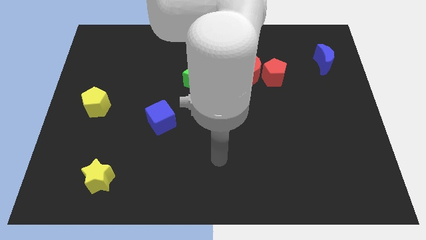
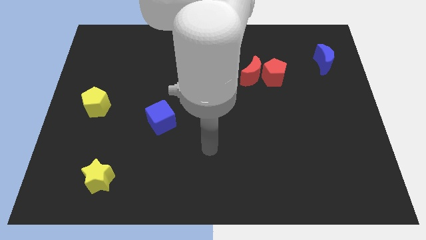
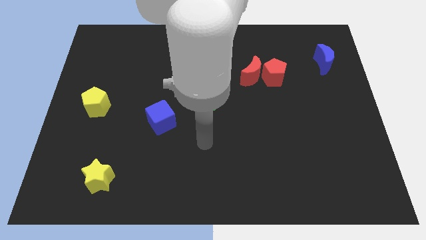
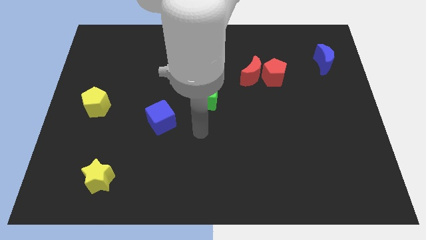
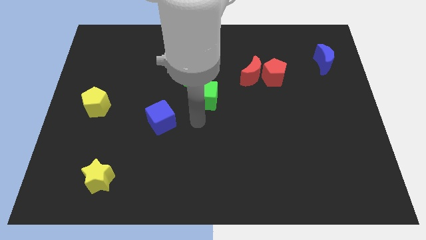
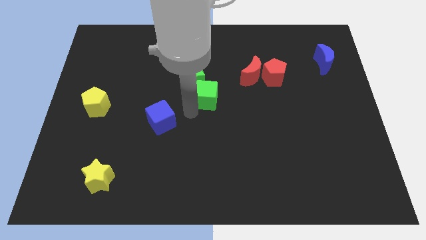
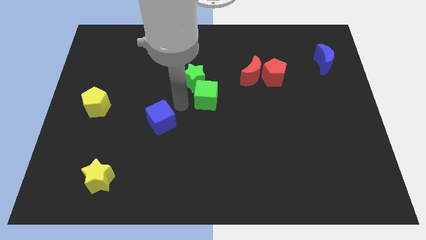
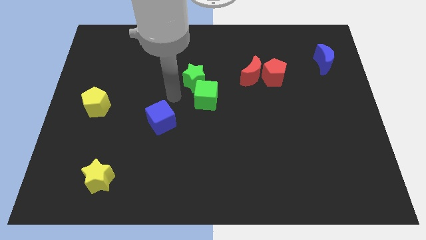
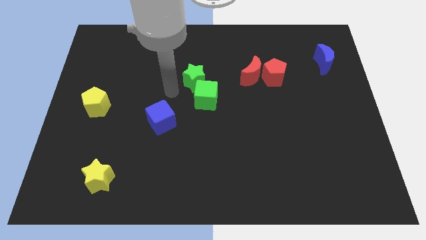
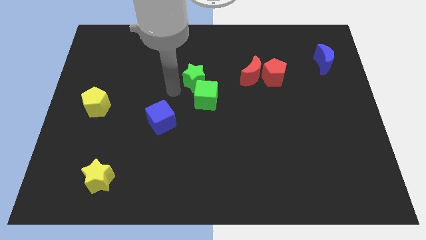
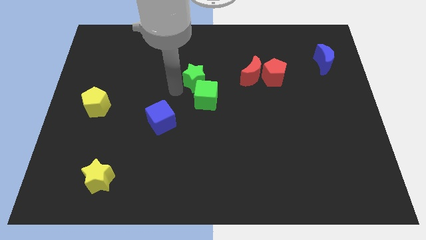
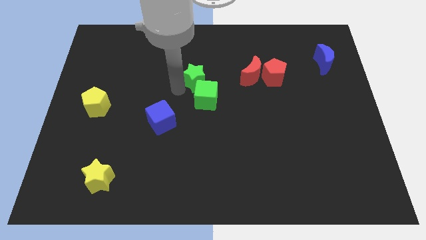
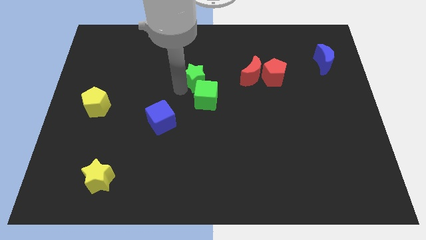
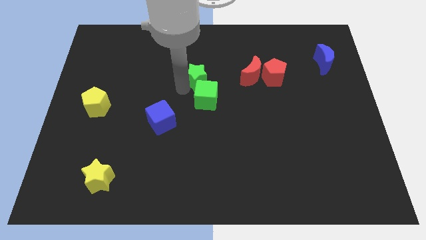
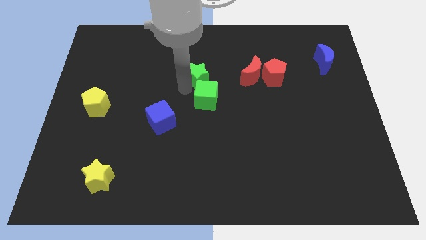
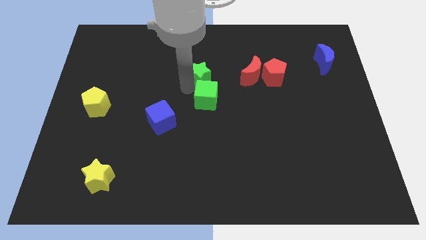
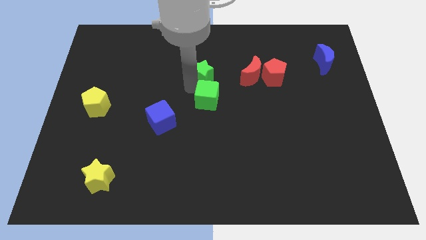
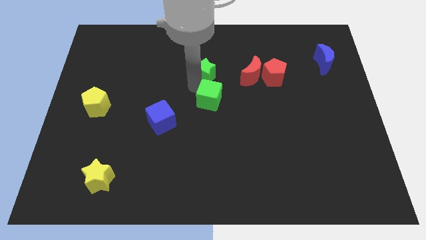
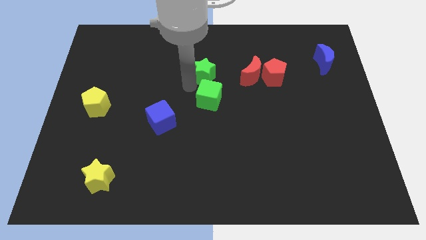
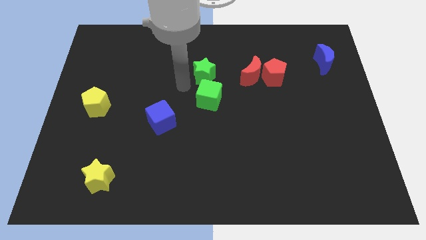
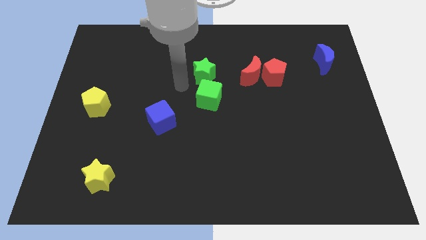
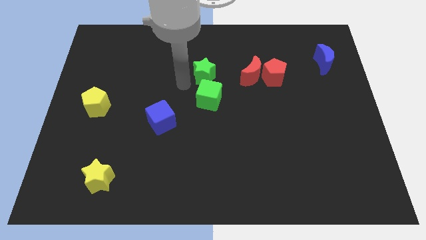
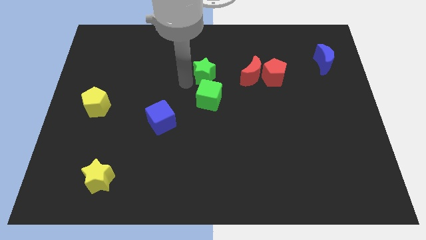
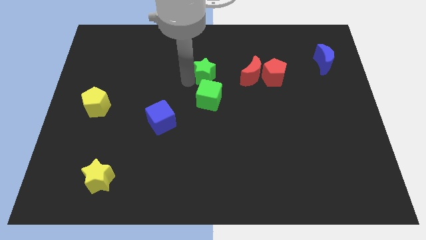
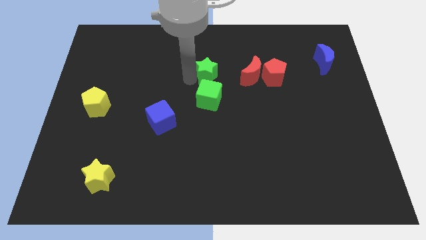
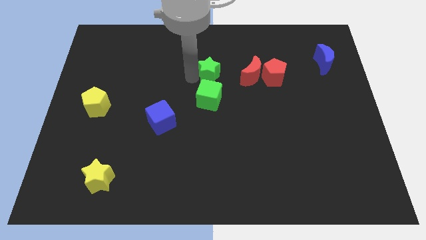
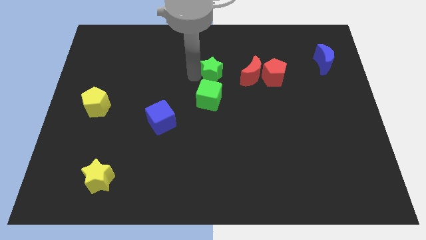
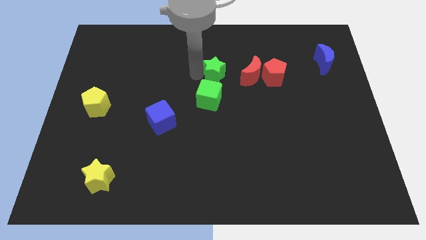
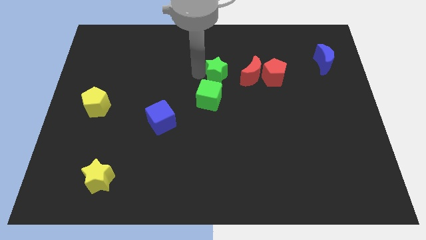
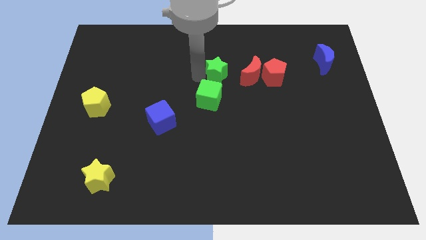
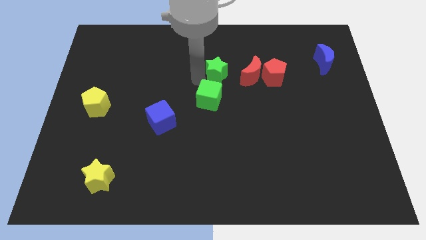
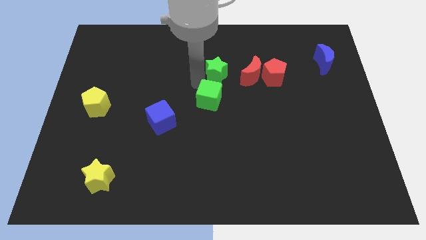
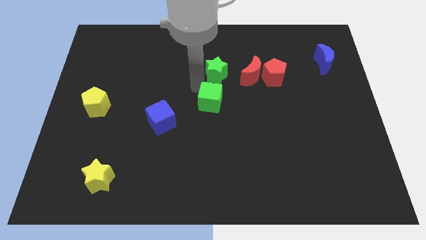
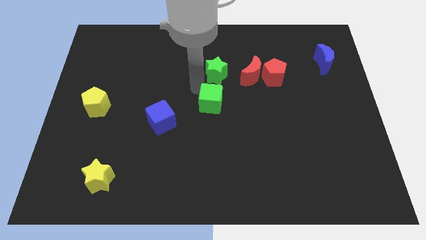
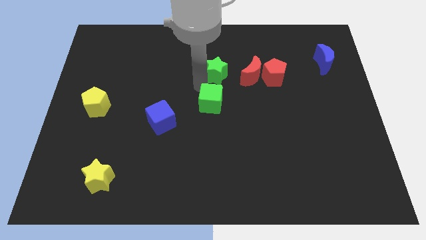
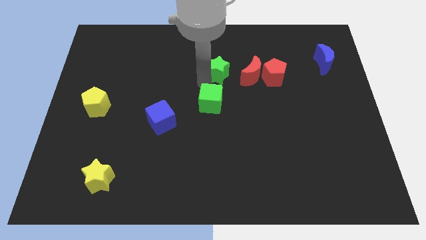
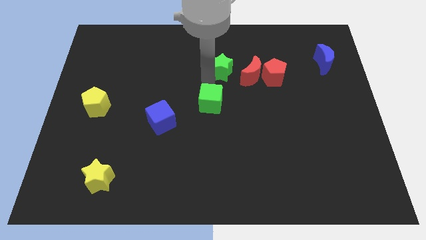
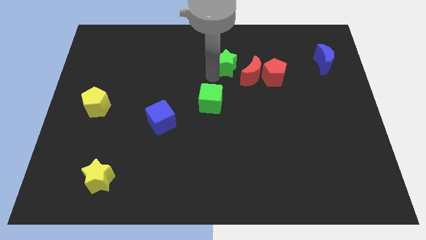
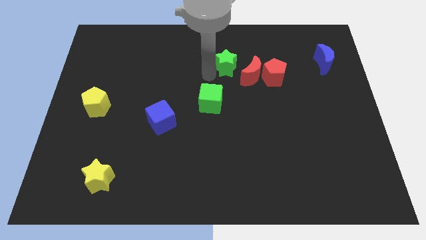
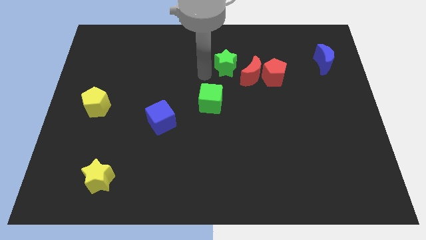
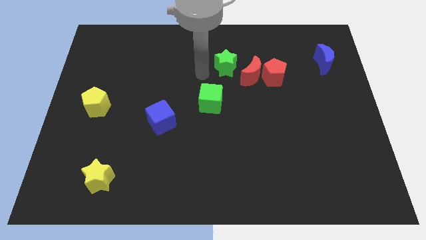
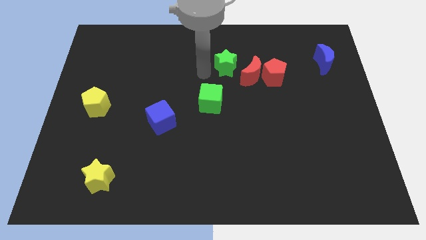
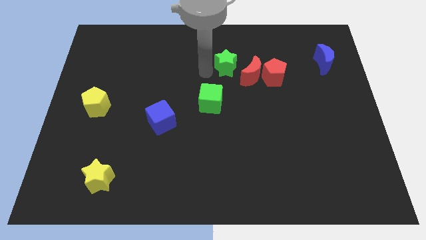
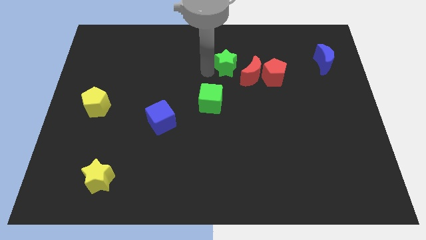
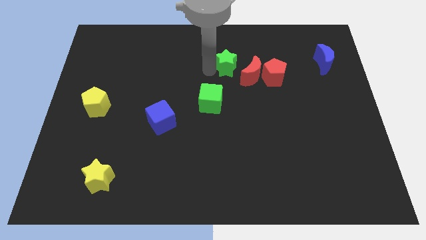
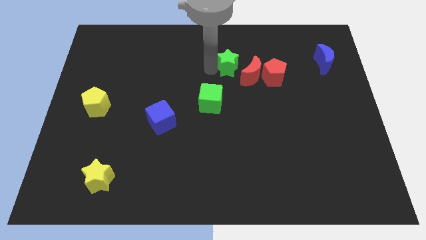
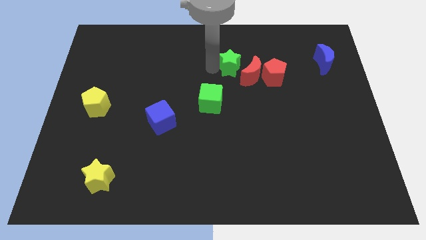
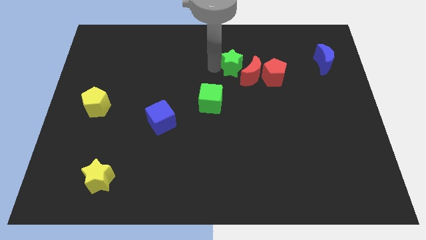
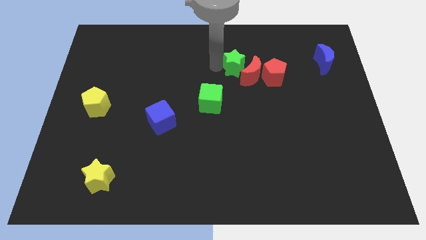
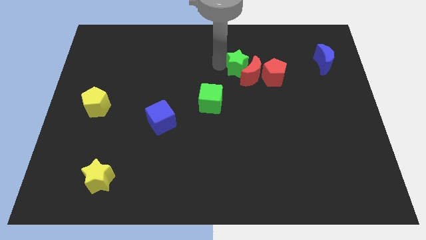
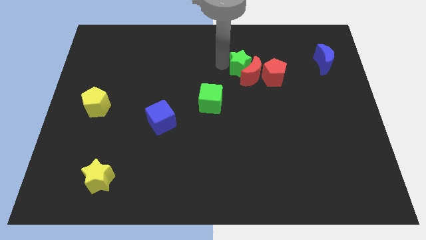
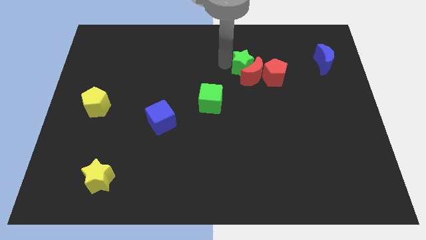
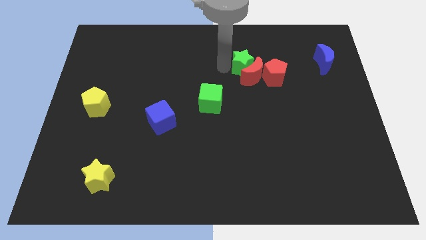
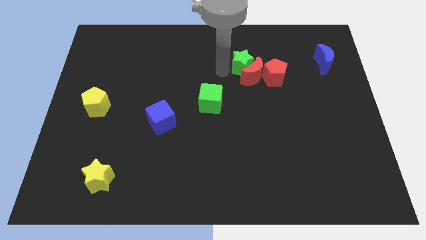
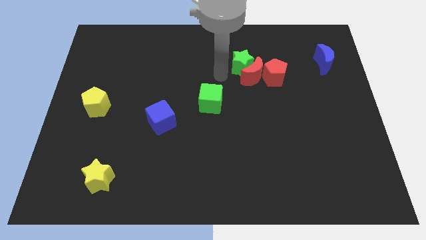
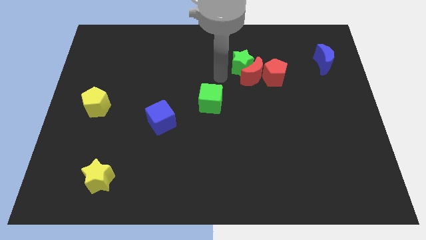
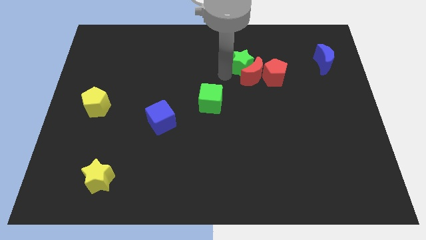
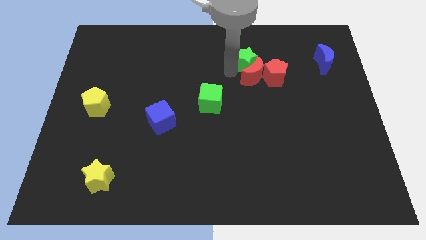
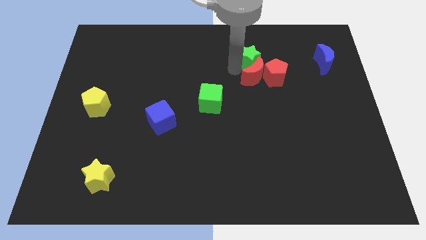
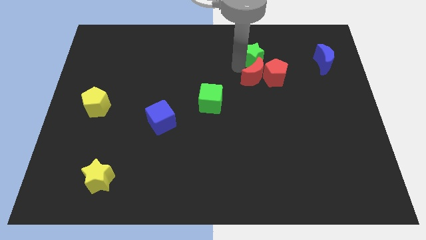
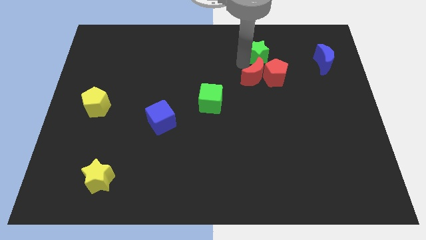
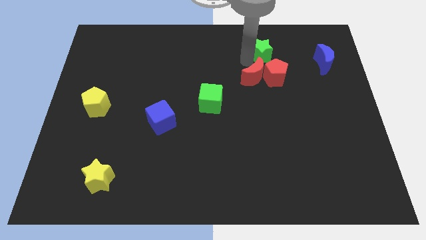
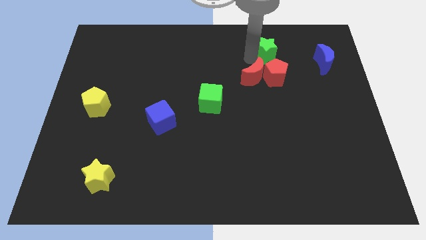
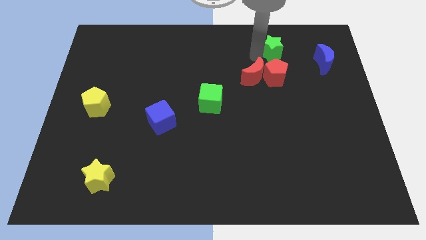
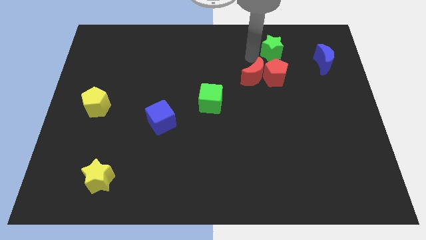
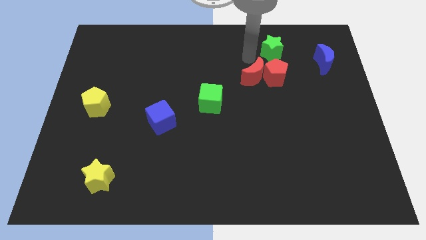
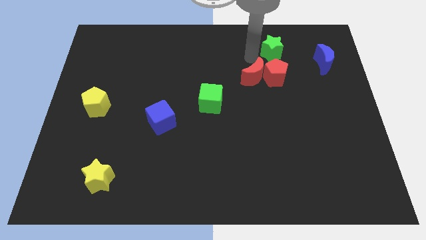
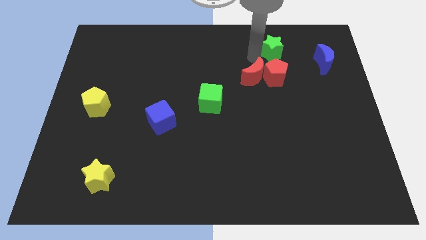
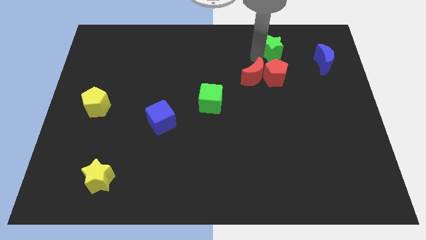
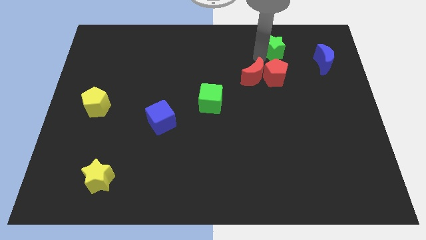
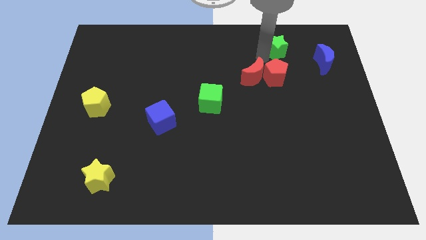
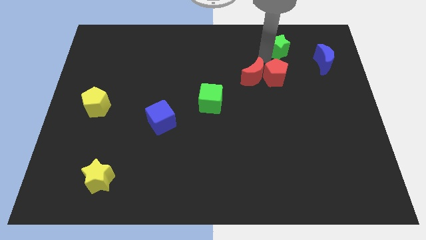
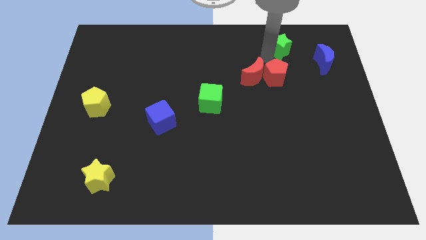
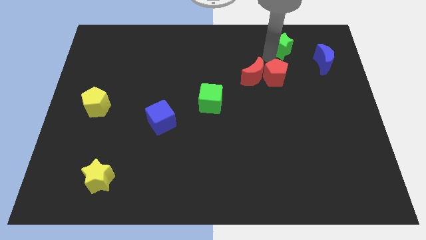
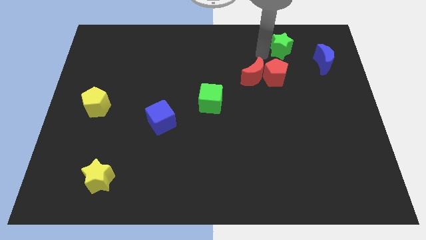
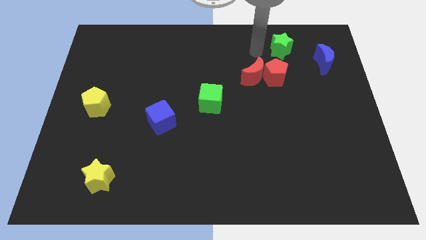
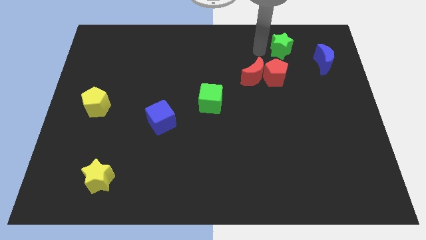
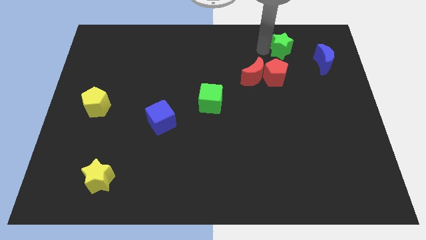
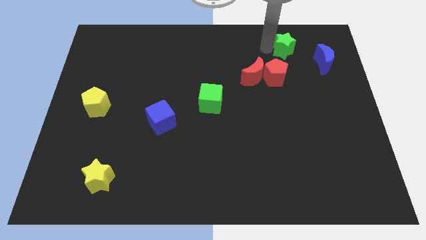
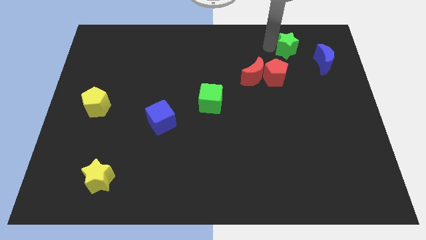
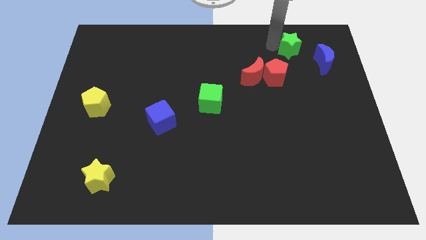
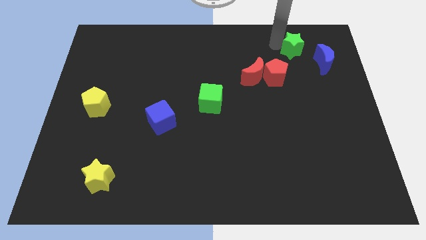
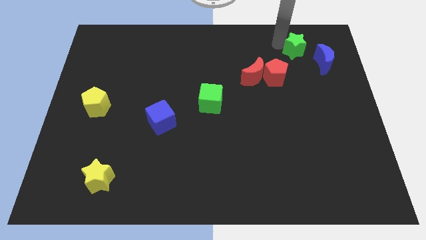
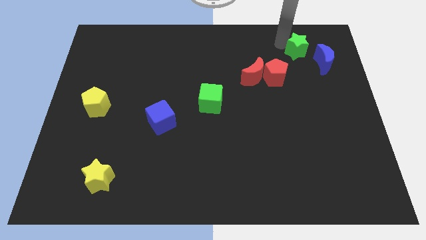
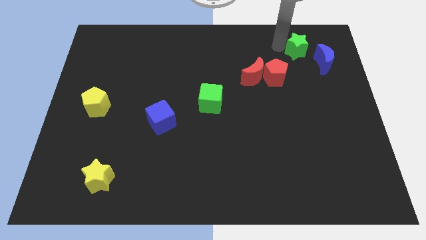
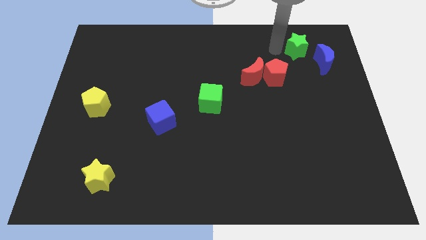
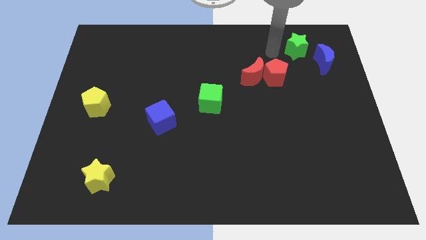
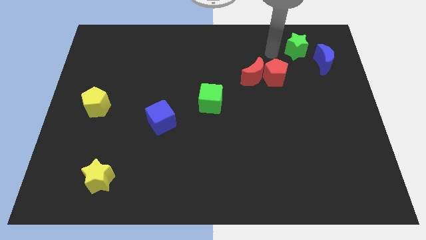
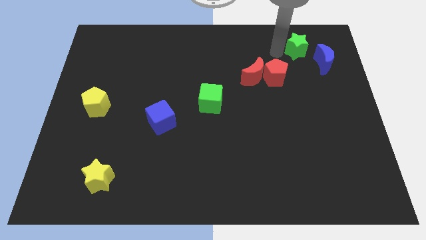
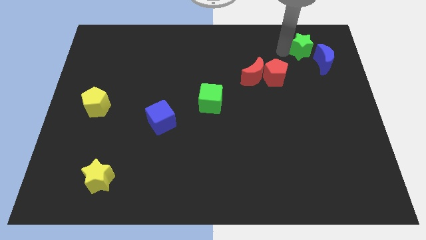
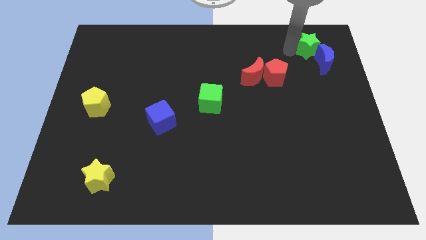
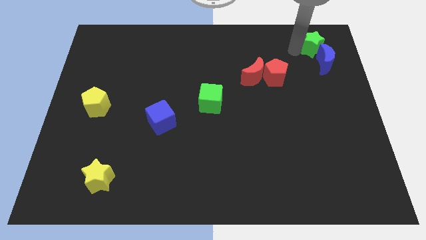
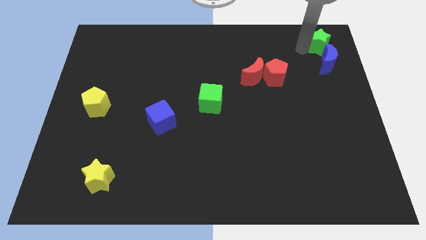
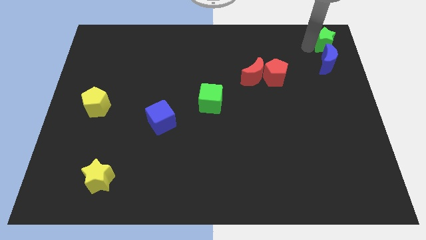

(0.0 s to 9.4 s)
put the green star to the top right of the board
